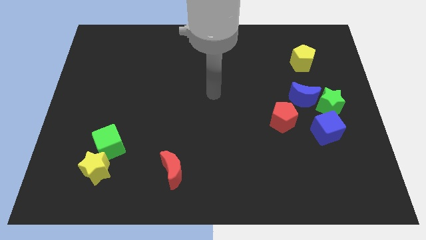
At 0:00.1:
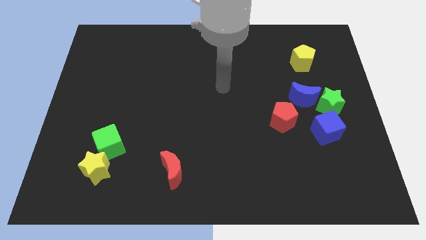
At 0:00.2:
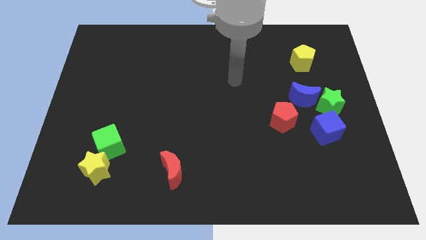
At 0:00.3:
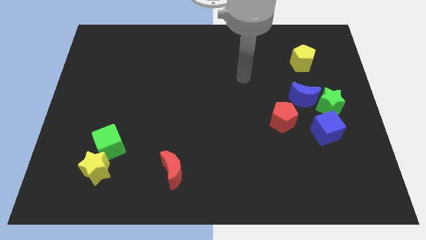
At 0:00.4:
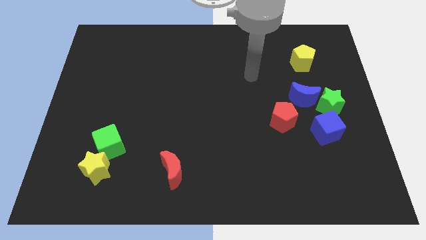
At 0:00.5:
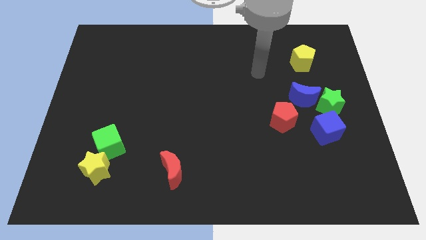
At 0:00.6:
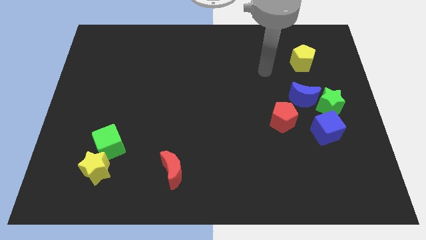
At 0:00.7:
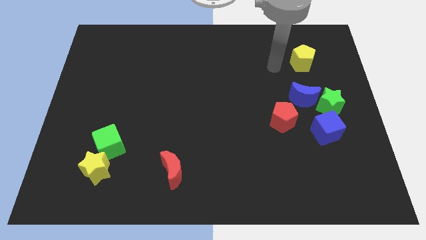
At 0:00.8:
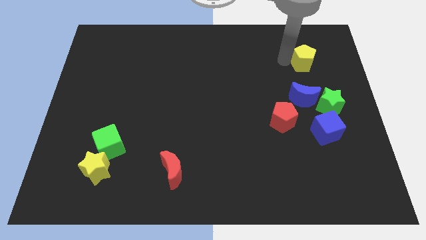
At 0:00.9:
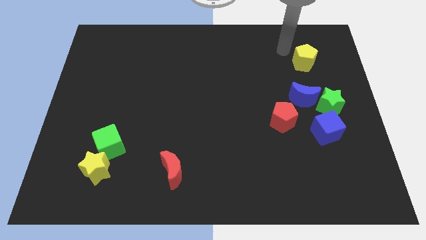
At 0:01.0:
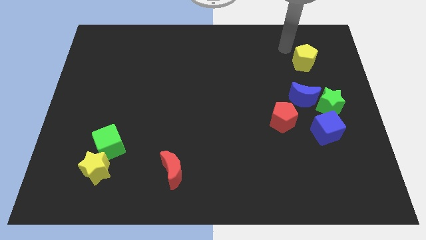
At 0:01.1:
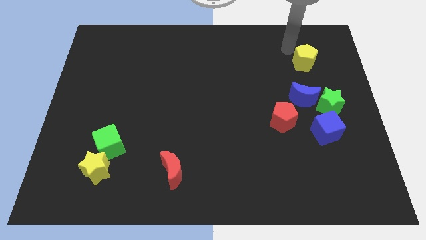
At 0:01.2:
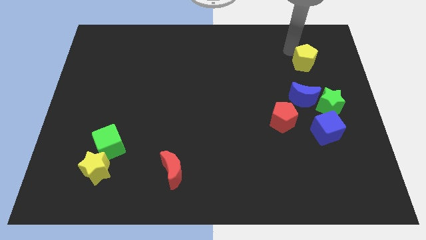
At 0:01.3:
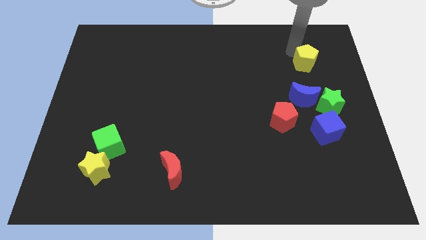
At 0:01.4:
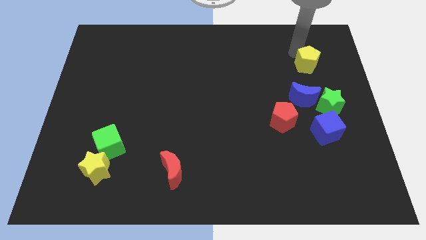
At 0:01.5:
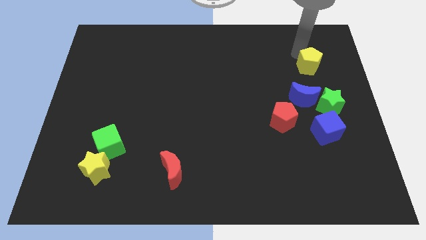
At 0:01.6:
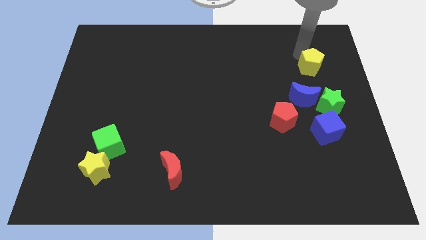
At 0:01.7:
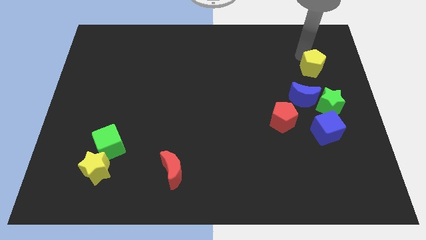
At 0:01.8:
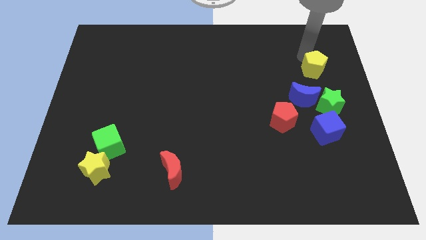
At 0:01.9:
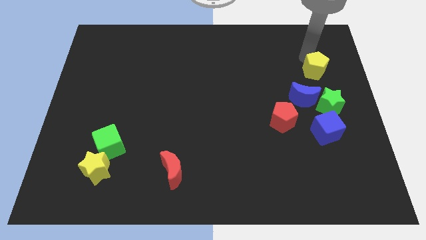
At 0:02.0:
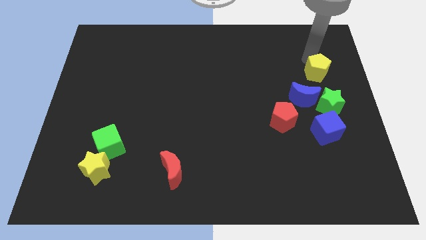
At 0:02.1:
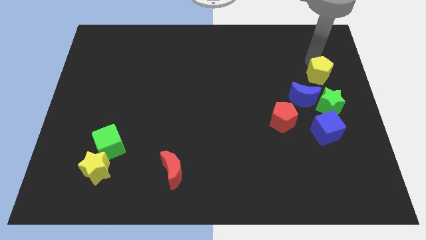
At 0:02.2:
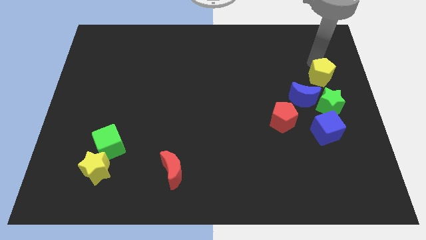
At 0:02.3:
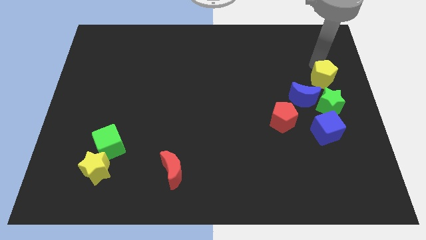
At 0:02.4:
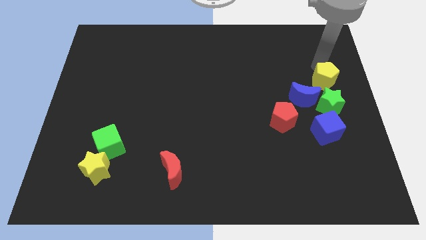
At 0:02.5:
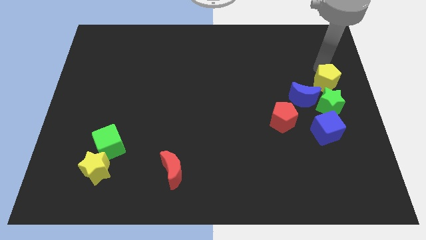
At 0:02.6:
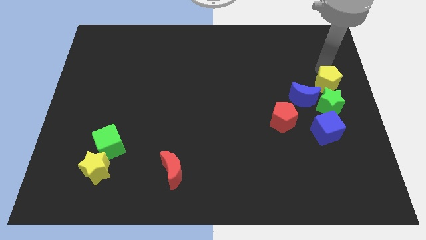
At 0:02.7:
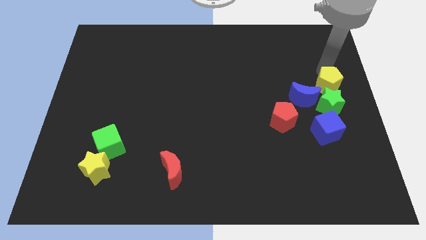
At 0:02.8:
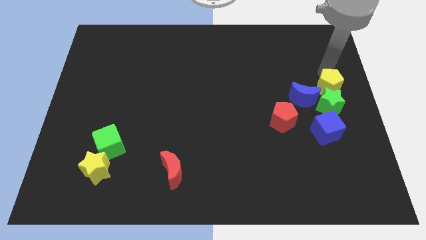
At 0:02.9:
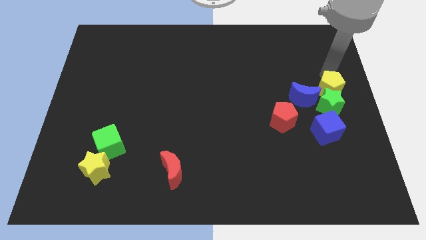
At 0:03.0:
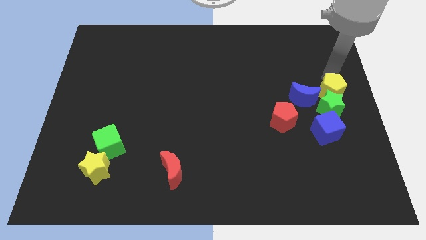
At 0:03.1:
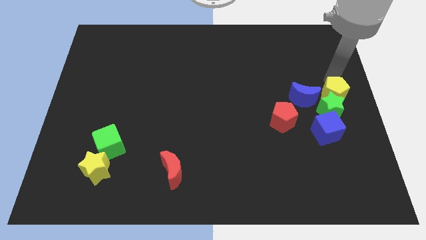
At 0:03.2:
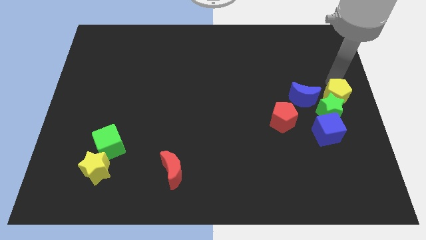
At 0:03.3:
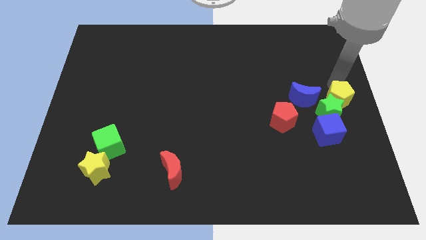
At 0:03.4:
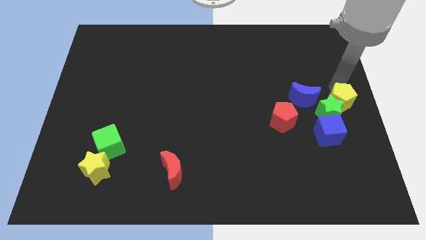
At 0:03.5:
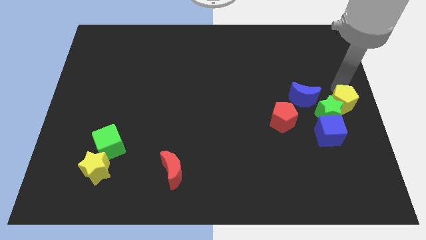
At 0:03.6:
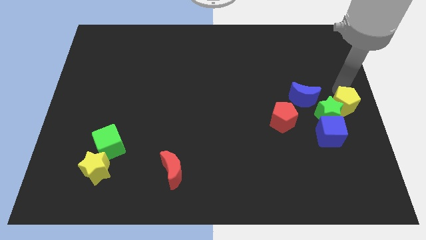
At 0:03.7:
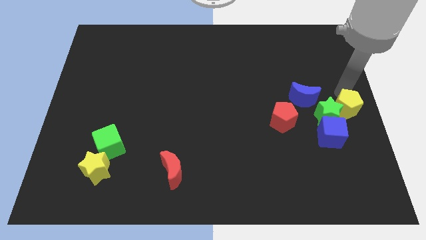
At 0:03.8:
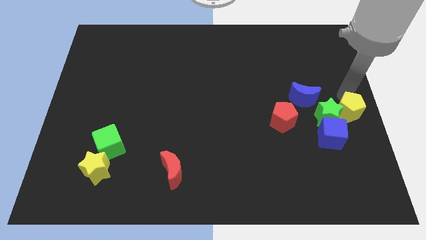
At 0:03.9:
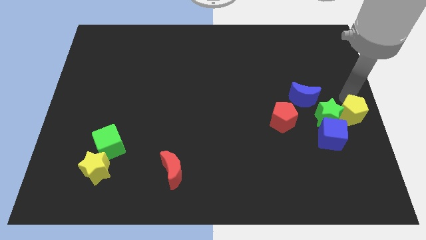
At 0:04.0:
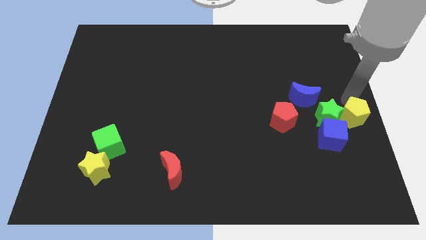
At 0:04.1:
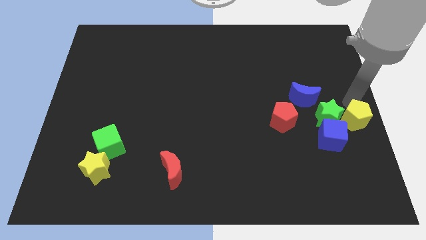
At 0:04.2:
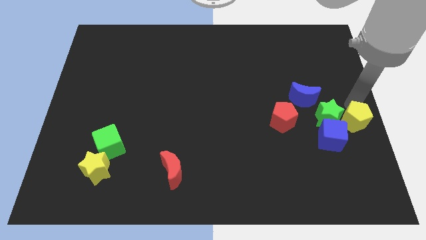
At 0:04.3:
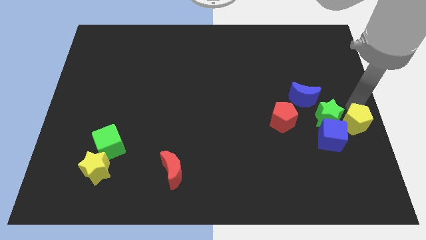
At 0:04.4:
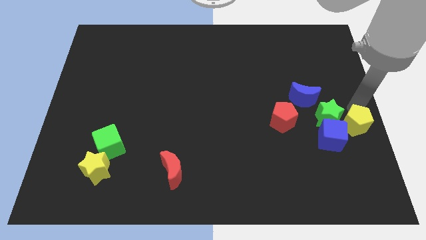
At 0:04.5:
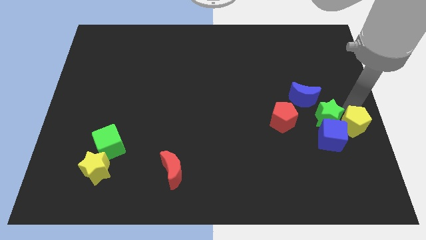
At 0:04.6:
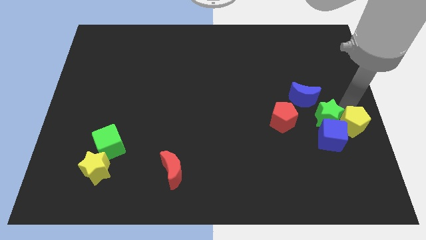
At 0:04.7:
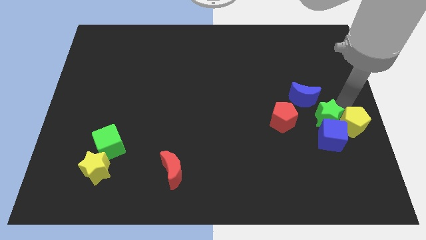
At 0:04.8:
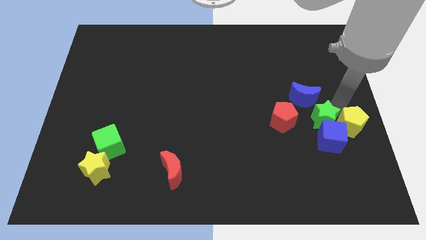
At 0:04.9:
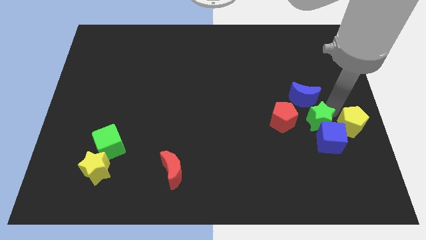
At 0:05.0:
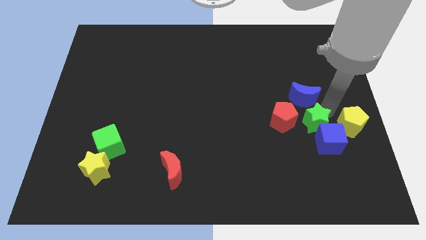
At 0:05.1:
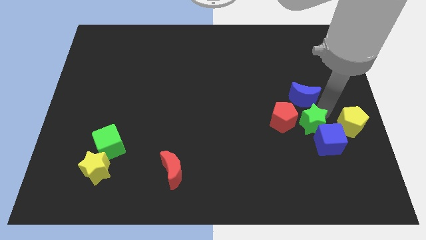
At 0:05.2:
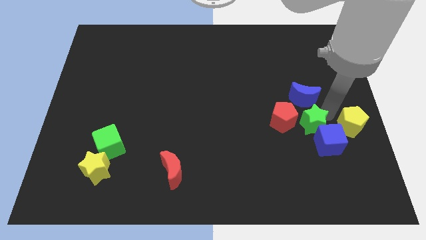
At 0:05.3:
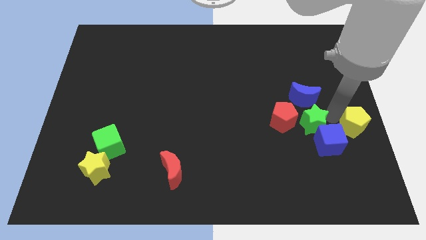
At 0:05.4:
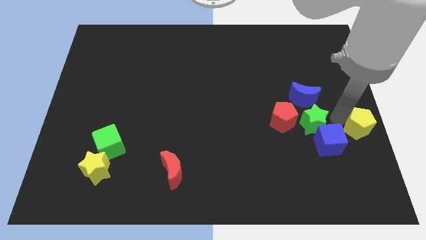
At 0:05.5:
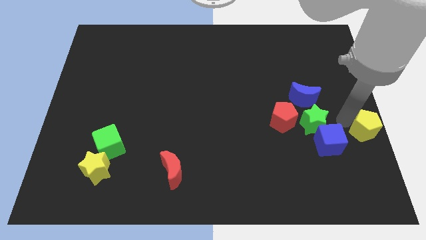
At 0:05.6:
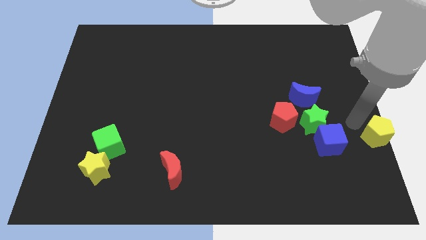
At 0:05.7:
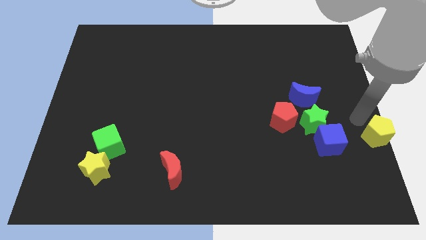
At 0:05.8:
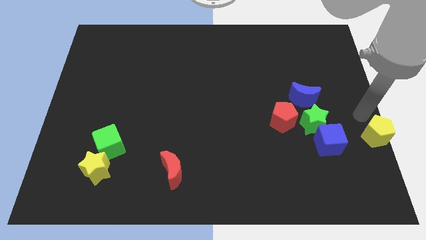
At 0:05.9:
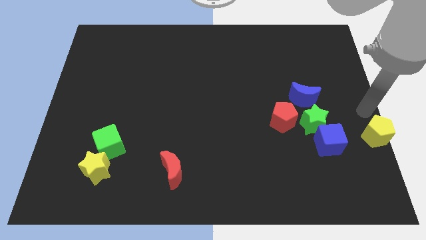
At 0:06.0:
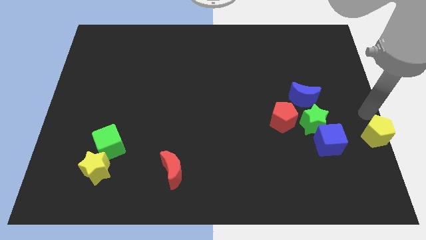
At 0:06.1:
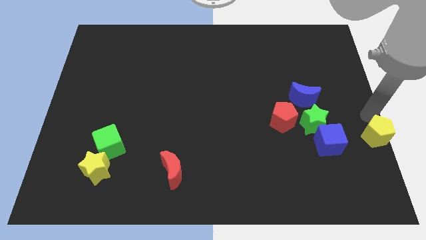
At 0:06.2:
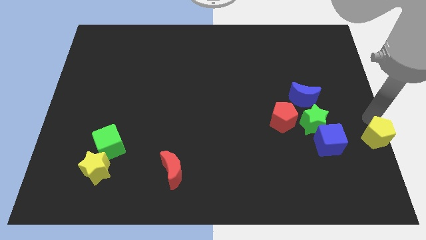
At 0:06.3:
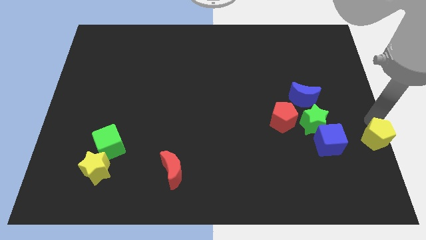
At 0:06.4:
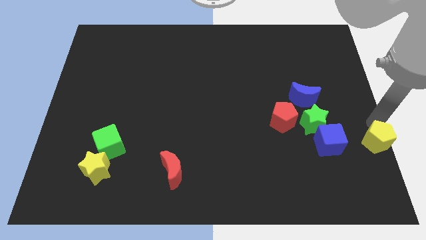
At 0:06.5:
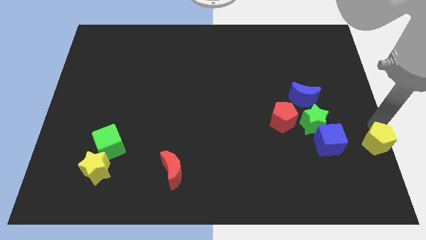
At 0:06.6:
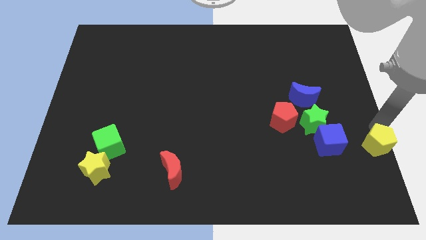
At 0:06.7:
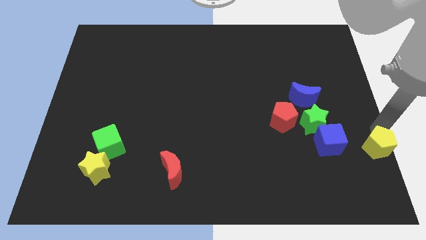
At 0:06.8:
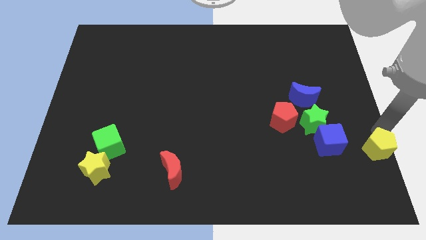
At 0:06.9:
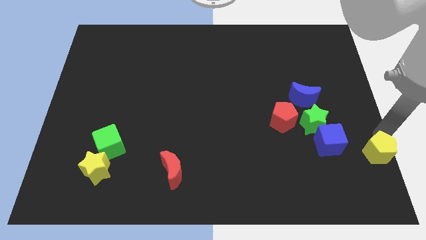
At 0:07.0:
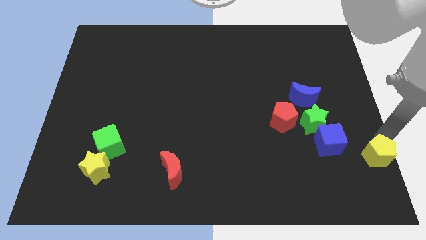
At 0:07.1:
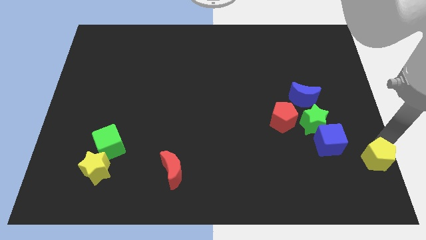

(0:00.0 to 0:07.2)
slide the yellow pentagon to the lower right corner
